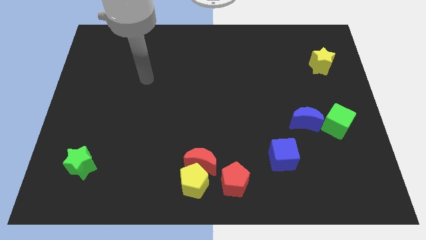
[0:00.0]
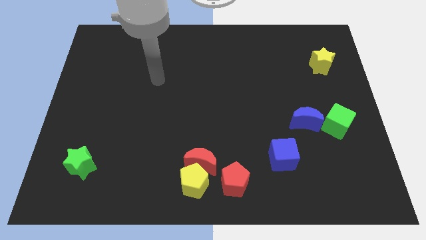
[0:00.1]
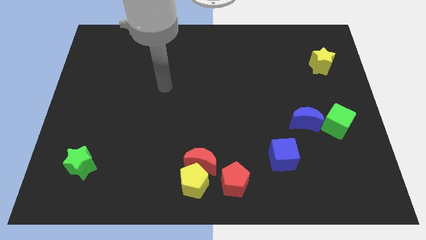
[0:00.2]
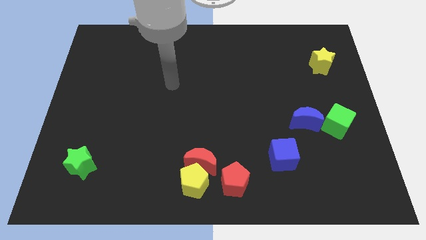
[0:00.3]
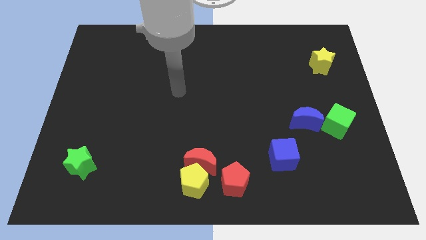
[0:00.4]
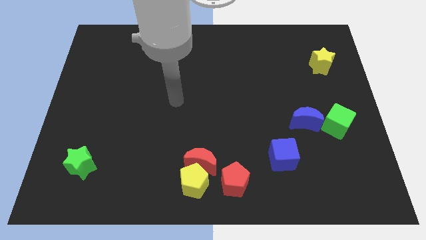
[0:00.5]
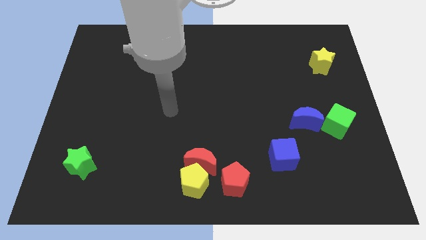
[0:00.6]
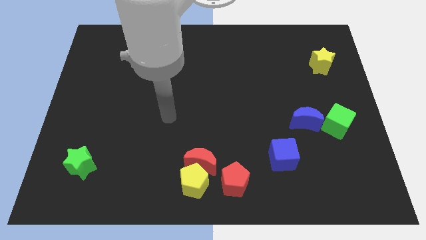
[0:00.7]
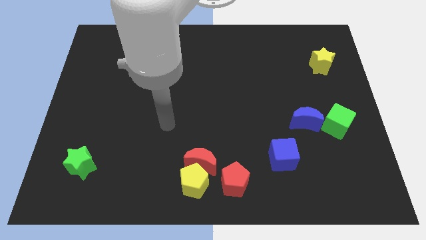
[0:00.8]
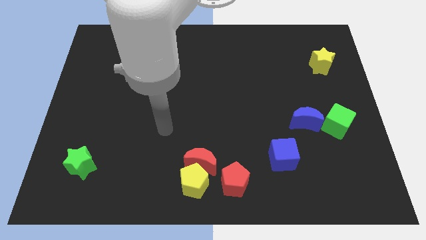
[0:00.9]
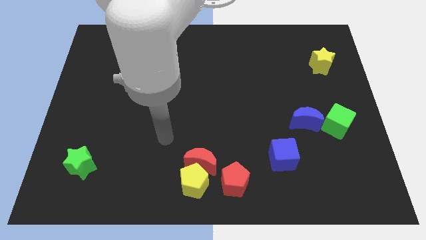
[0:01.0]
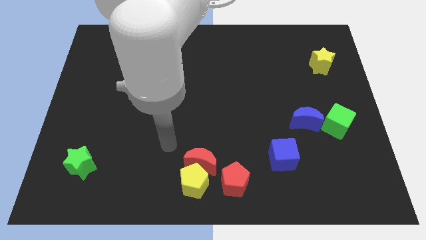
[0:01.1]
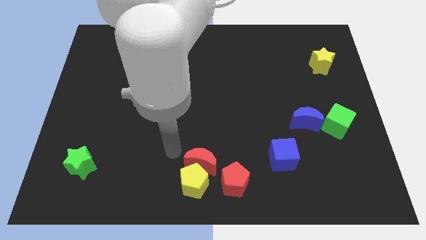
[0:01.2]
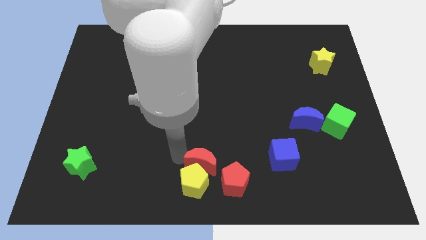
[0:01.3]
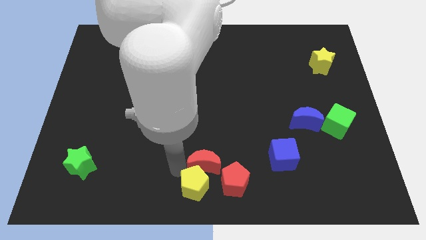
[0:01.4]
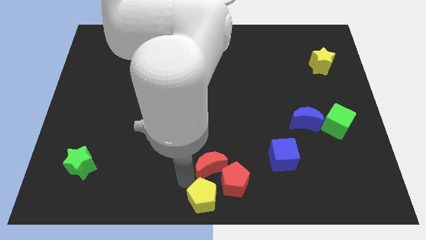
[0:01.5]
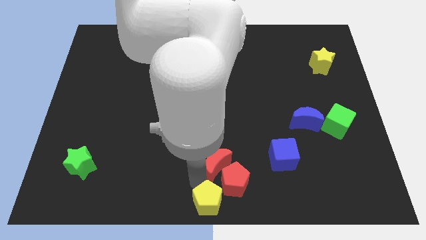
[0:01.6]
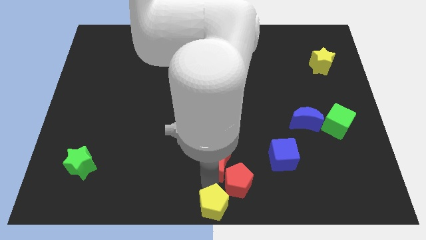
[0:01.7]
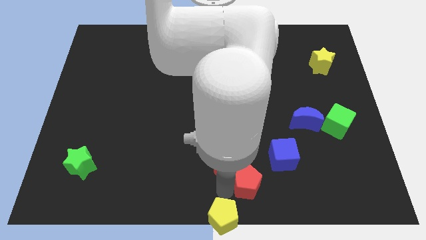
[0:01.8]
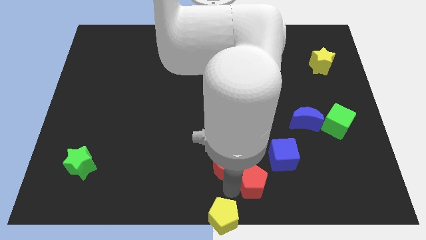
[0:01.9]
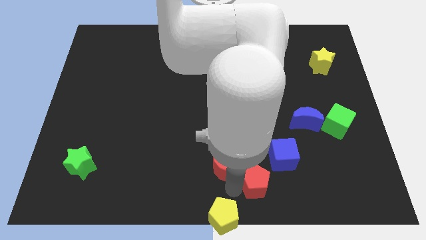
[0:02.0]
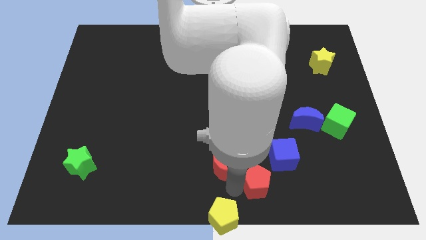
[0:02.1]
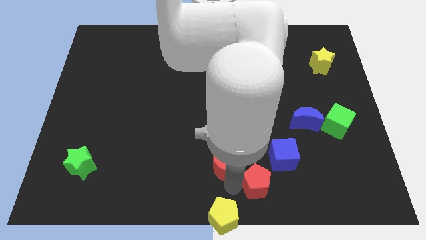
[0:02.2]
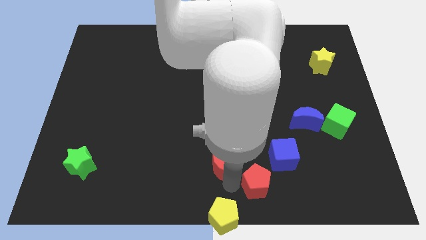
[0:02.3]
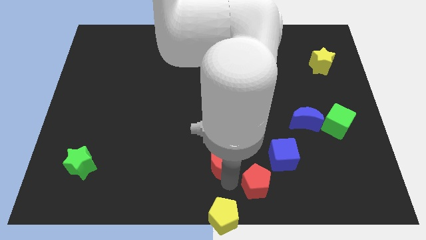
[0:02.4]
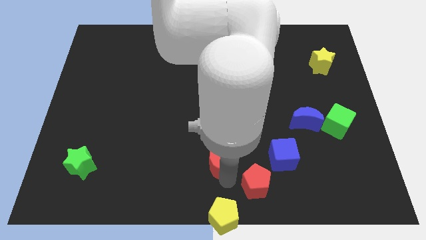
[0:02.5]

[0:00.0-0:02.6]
pull the red moon apart from the yellow pentagon and red pentagon

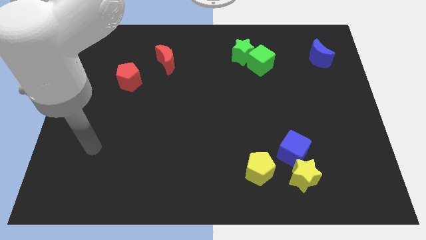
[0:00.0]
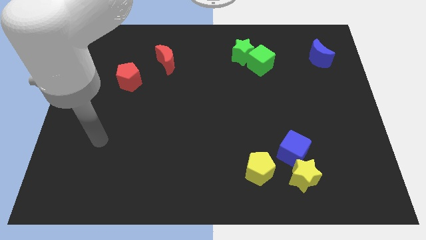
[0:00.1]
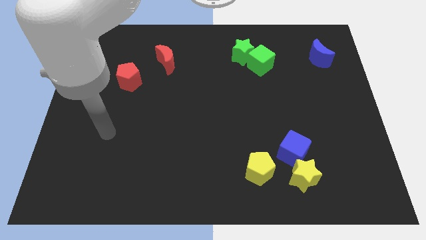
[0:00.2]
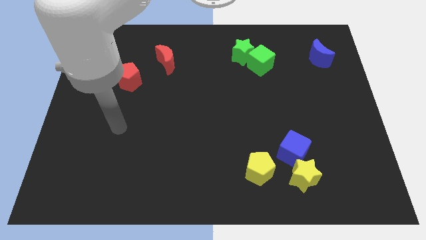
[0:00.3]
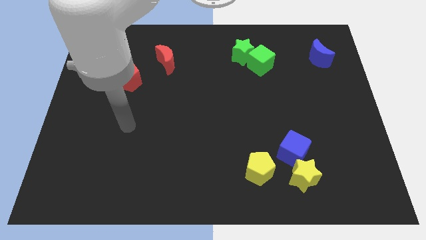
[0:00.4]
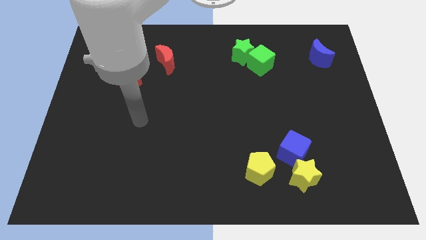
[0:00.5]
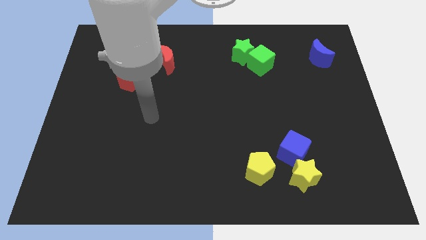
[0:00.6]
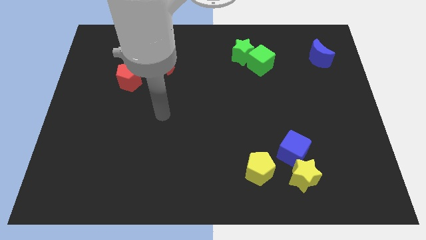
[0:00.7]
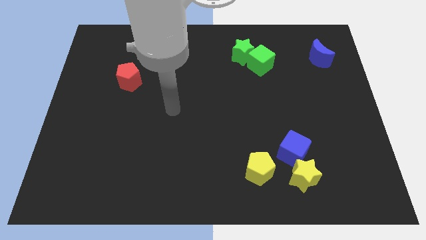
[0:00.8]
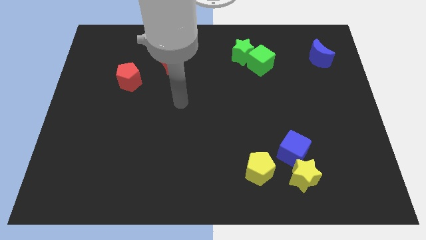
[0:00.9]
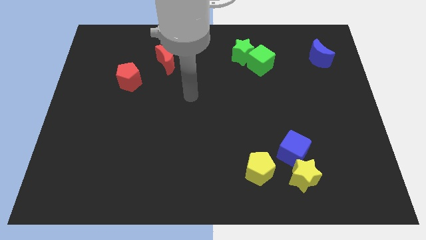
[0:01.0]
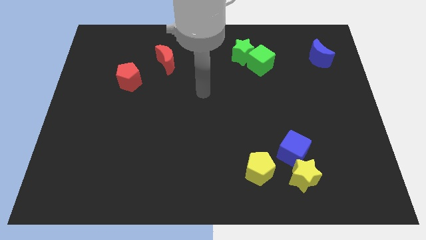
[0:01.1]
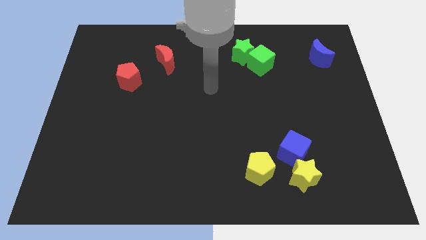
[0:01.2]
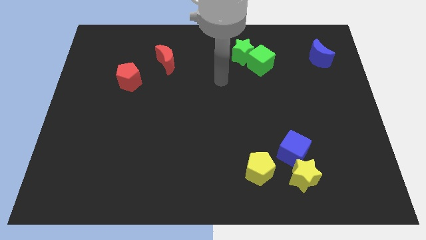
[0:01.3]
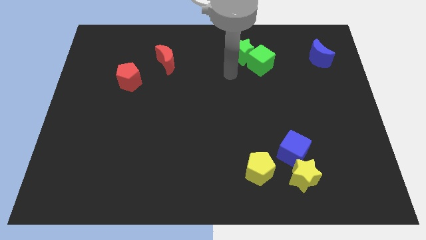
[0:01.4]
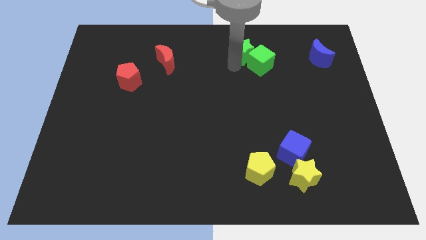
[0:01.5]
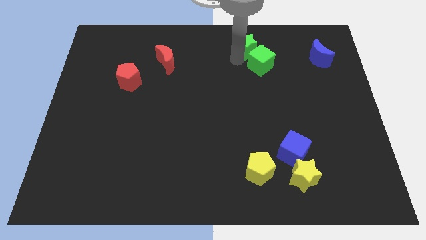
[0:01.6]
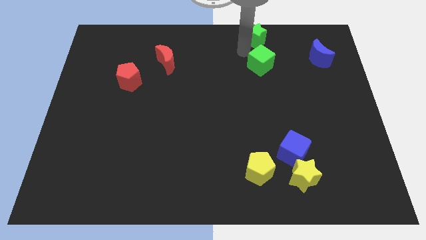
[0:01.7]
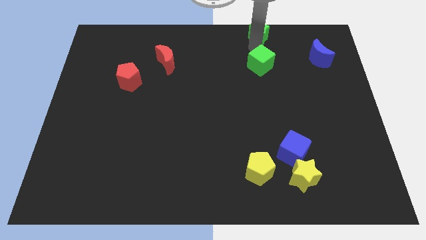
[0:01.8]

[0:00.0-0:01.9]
pull the green cube apart from the green star

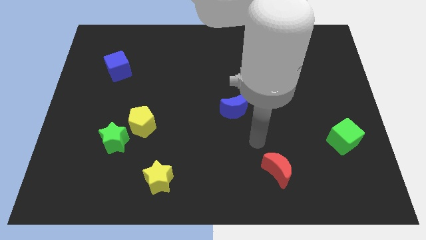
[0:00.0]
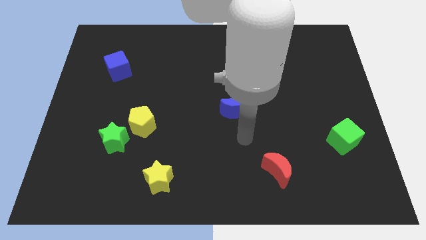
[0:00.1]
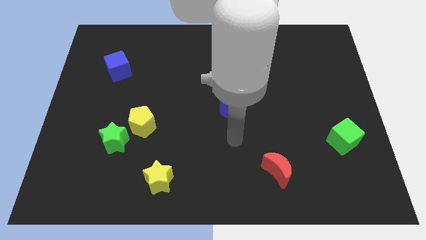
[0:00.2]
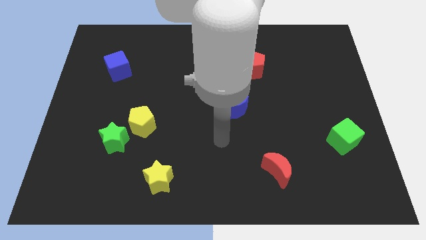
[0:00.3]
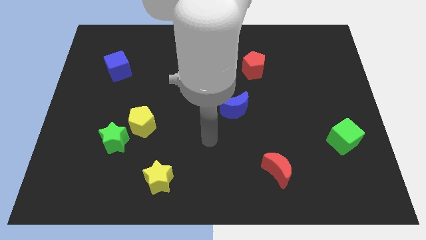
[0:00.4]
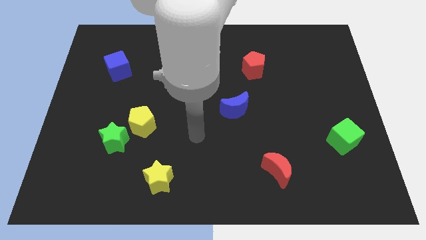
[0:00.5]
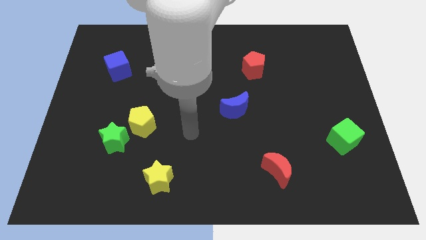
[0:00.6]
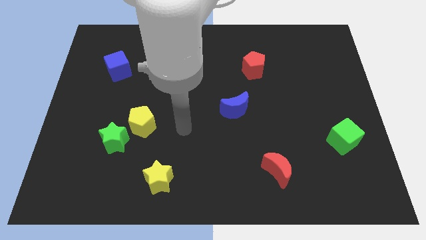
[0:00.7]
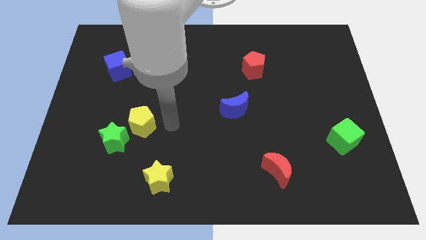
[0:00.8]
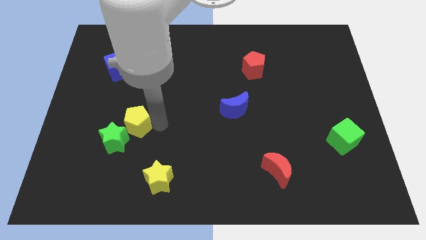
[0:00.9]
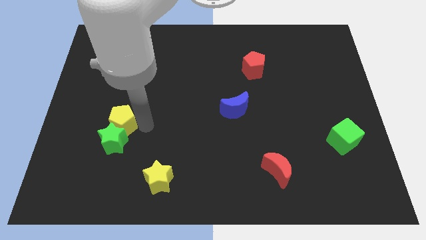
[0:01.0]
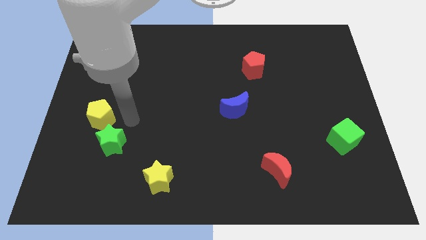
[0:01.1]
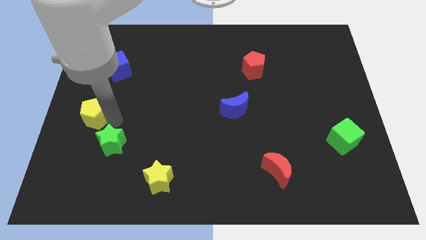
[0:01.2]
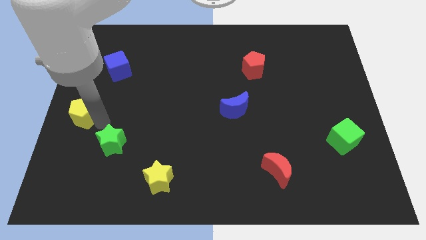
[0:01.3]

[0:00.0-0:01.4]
move the green star away from the yellow pentagon

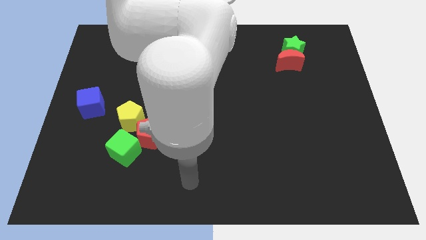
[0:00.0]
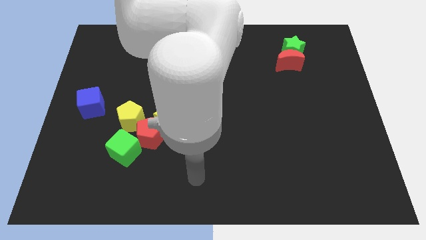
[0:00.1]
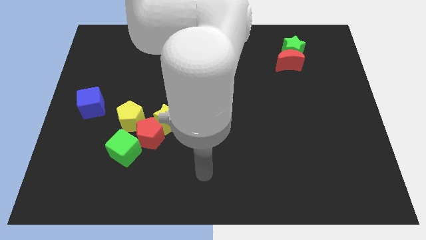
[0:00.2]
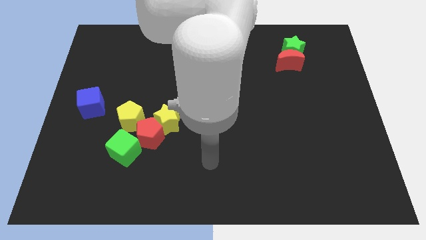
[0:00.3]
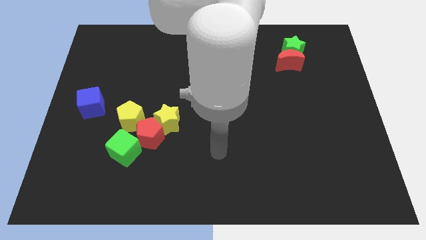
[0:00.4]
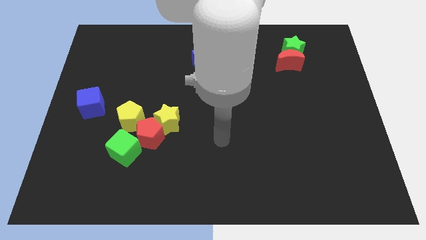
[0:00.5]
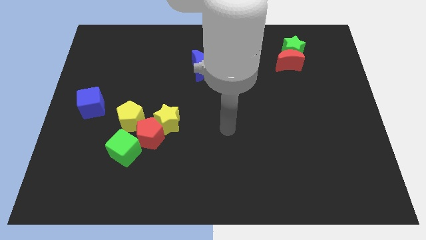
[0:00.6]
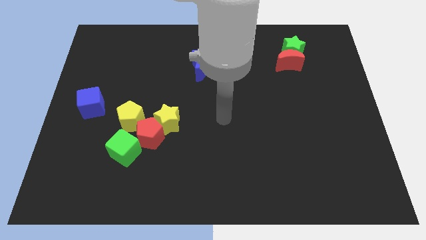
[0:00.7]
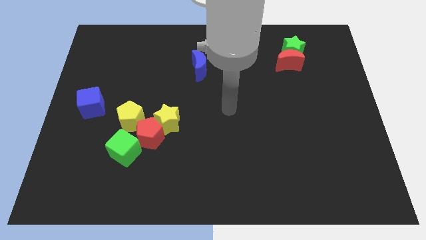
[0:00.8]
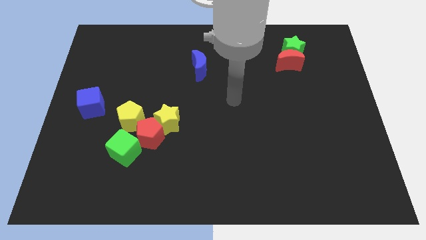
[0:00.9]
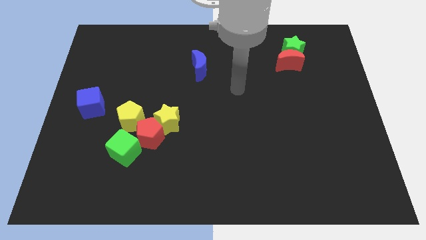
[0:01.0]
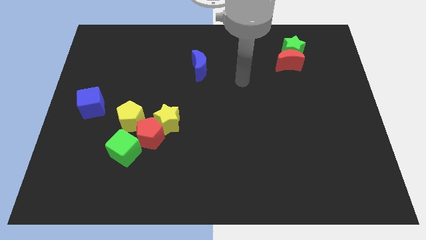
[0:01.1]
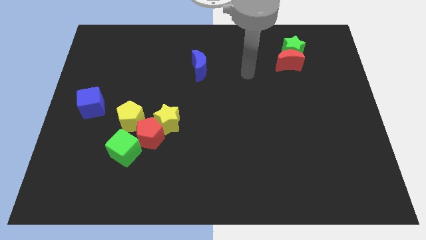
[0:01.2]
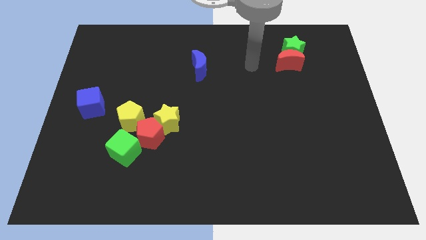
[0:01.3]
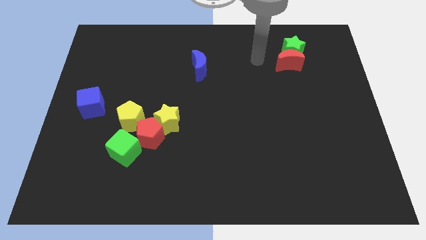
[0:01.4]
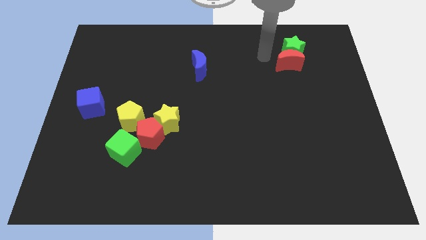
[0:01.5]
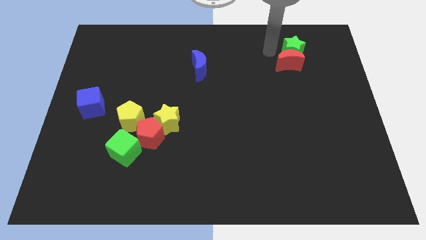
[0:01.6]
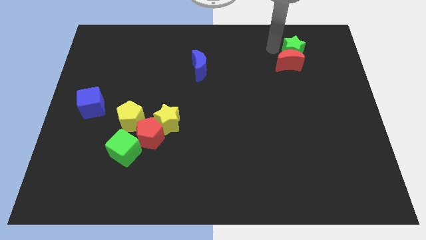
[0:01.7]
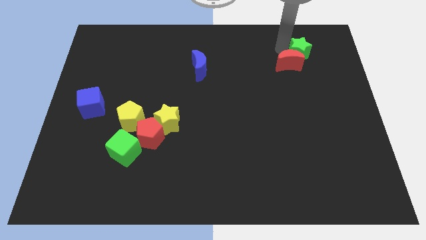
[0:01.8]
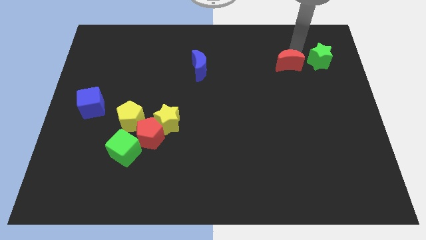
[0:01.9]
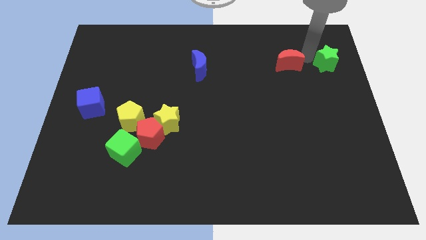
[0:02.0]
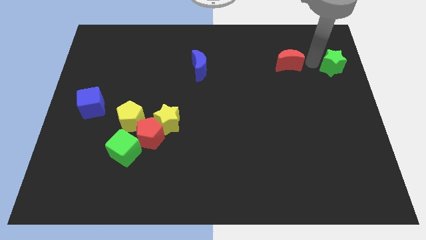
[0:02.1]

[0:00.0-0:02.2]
pull the red moon apart from the green star

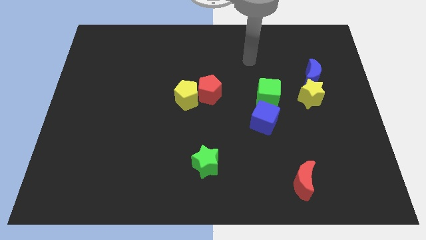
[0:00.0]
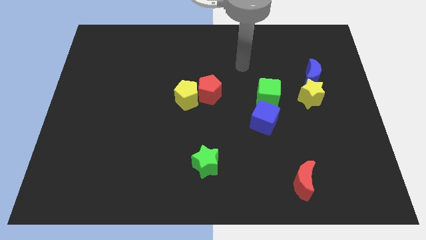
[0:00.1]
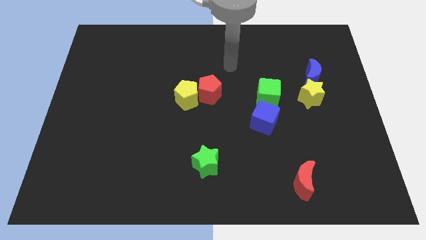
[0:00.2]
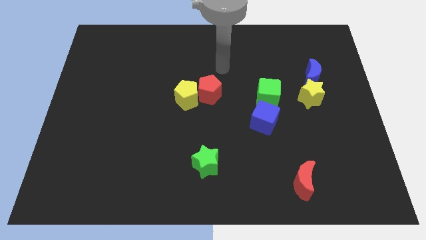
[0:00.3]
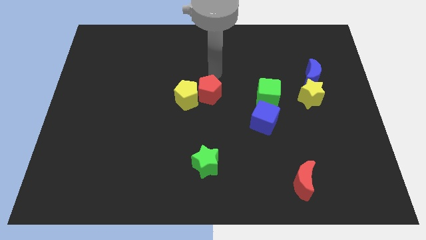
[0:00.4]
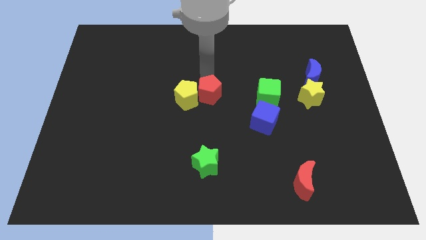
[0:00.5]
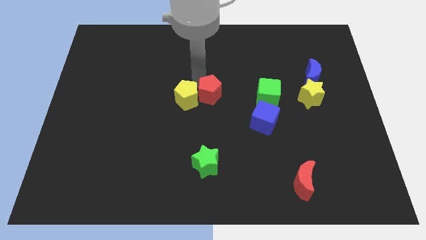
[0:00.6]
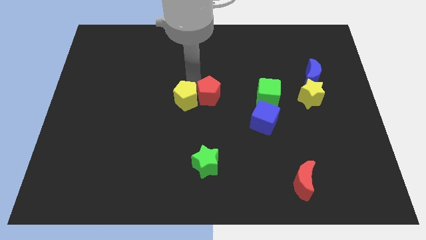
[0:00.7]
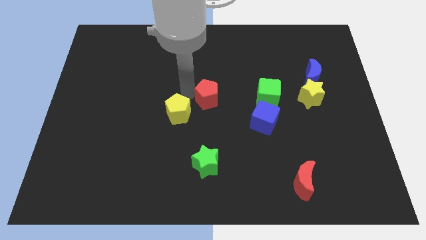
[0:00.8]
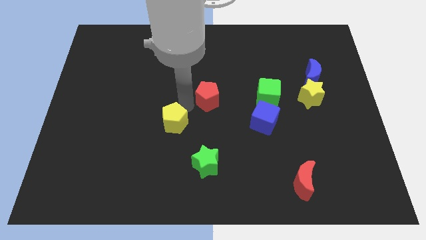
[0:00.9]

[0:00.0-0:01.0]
separate the red pentagon from the yellow pentagon

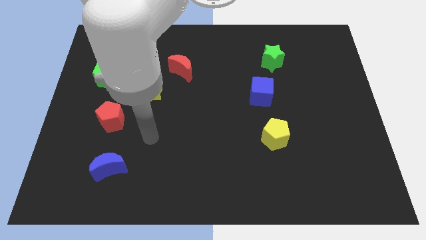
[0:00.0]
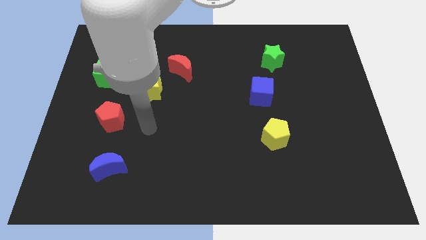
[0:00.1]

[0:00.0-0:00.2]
separate the red moon from the yellow star
